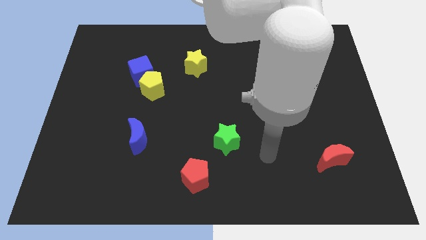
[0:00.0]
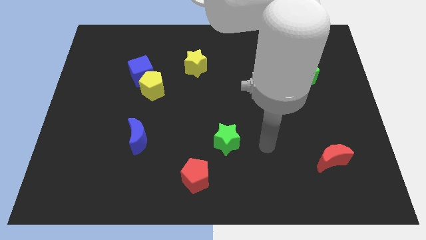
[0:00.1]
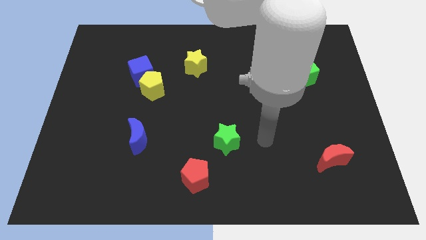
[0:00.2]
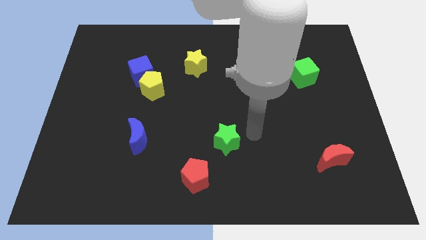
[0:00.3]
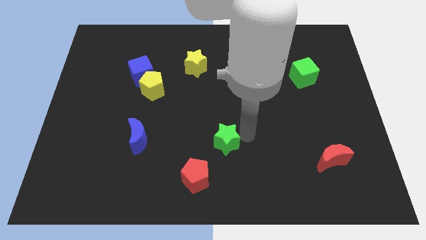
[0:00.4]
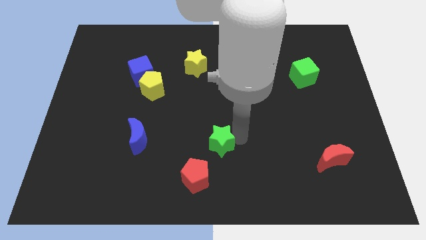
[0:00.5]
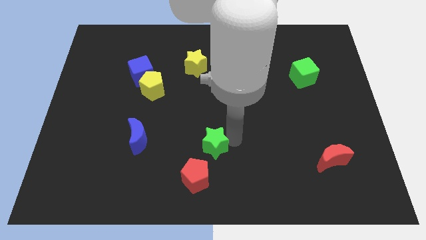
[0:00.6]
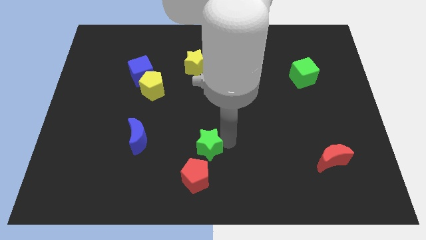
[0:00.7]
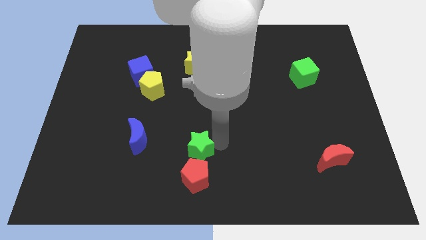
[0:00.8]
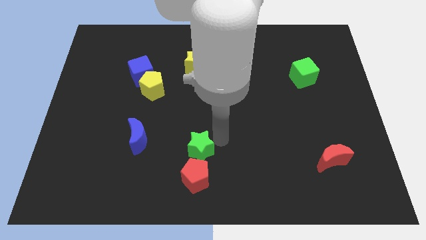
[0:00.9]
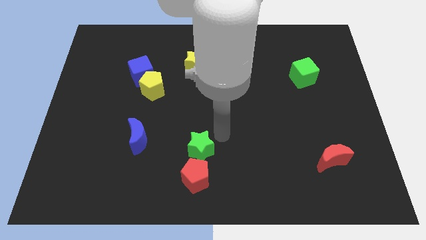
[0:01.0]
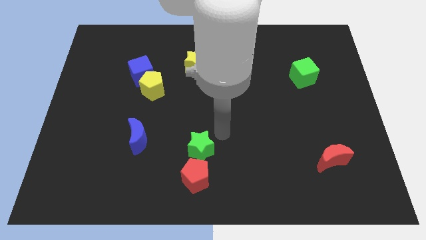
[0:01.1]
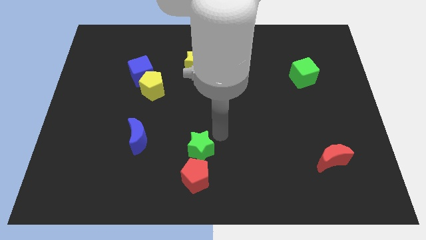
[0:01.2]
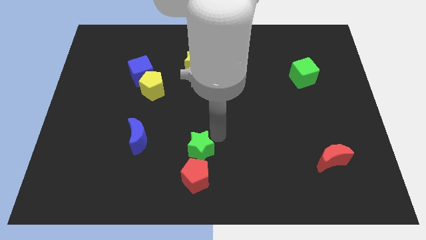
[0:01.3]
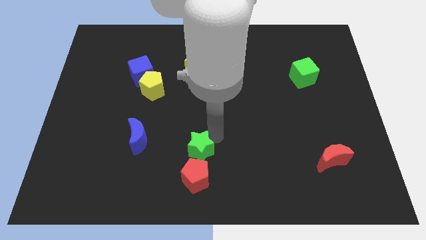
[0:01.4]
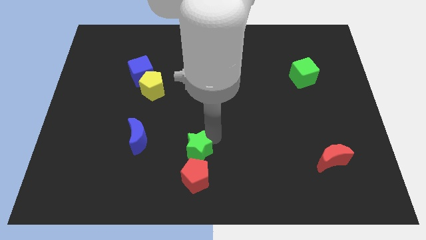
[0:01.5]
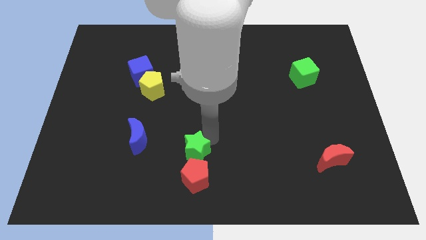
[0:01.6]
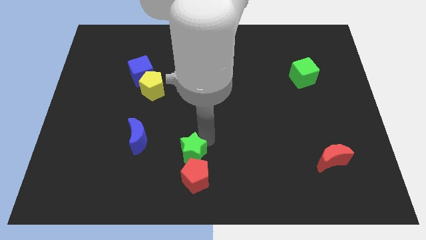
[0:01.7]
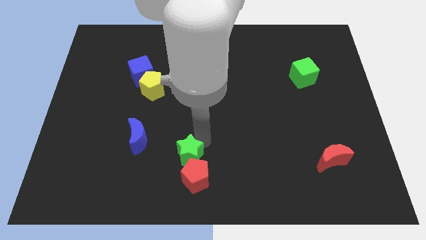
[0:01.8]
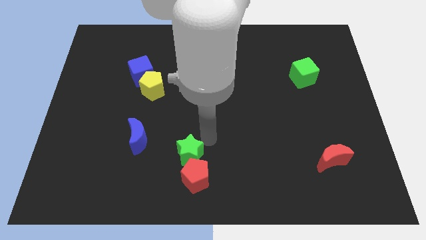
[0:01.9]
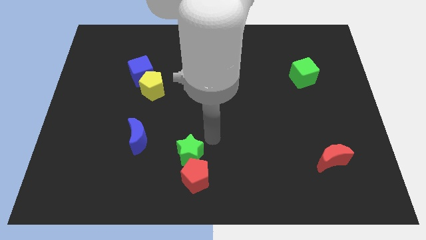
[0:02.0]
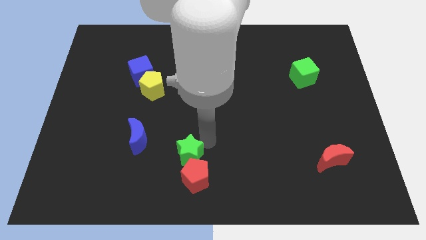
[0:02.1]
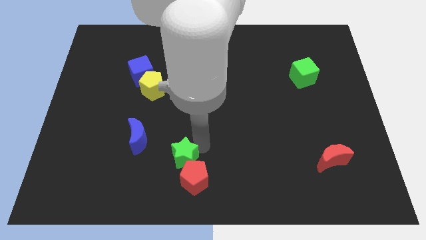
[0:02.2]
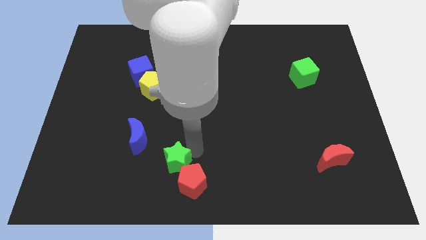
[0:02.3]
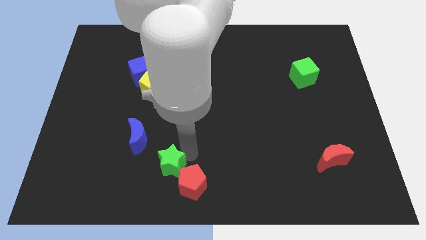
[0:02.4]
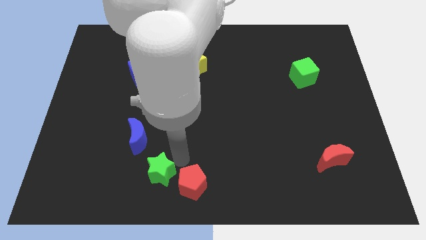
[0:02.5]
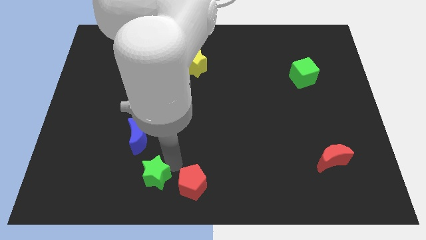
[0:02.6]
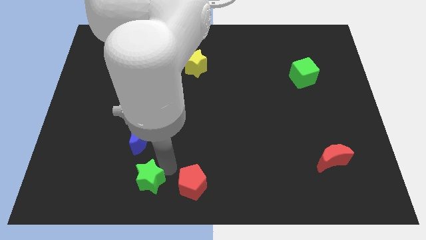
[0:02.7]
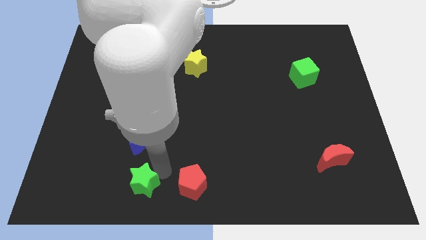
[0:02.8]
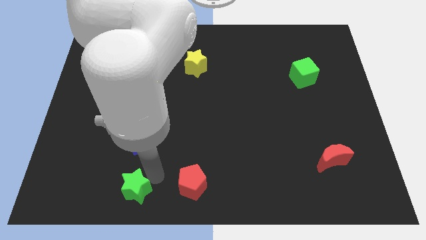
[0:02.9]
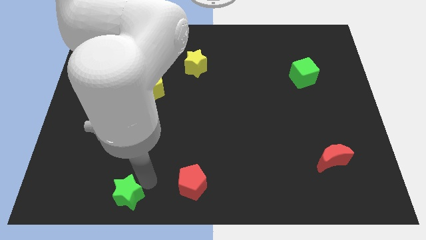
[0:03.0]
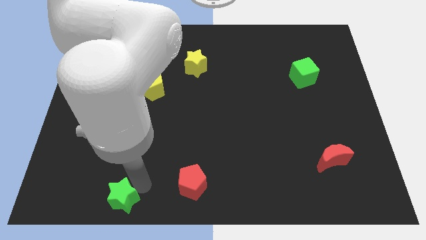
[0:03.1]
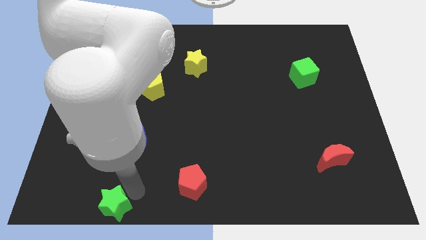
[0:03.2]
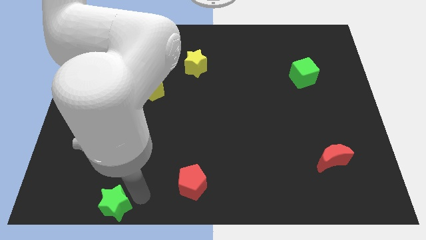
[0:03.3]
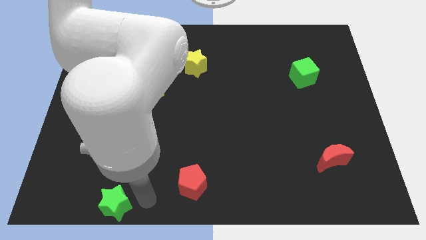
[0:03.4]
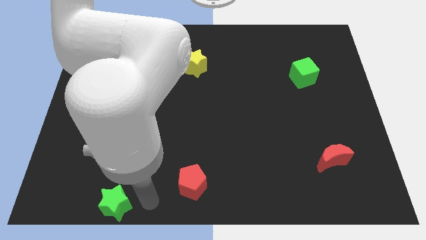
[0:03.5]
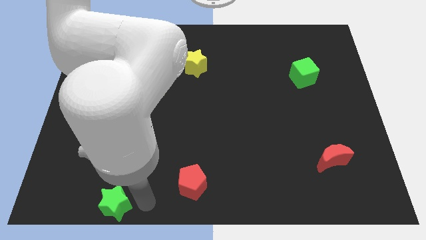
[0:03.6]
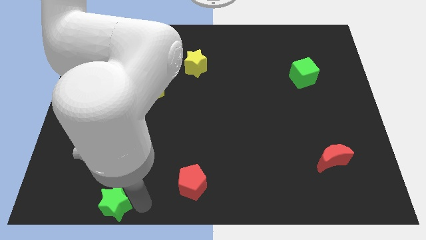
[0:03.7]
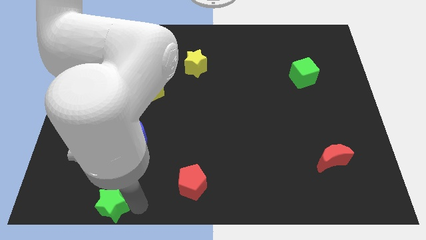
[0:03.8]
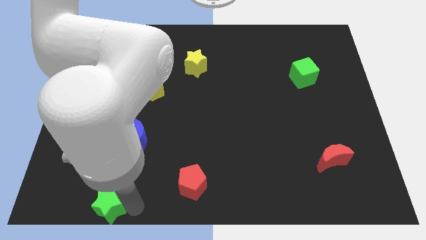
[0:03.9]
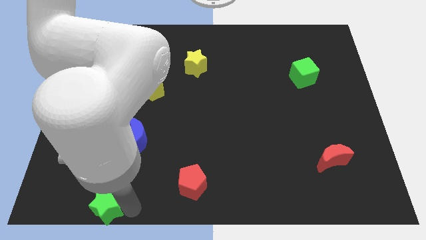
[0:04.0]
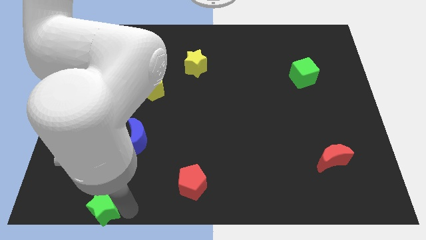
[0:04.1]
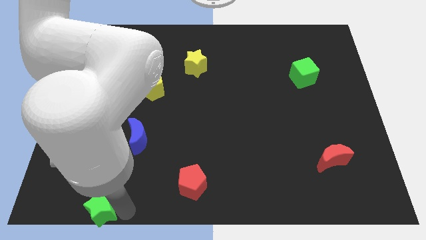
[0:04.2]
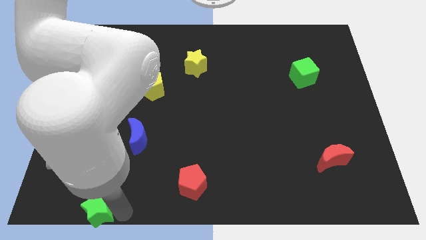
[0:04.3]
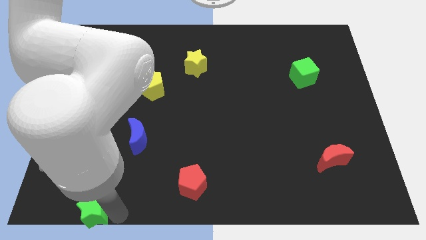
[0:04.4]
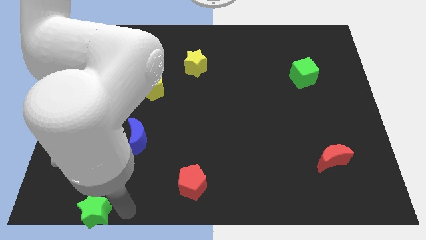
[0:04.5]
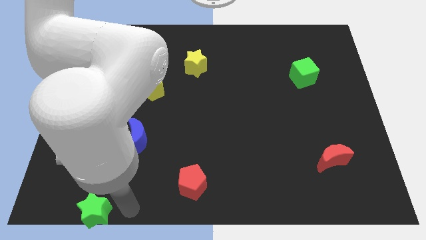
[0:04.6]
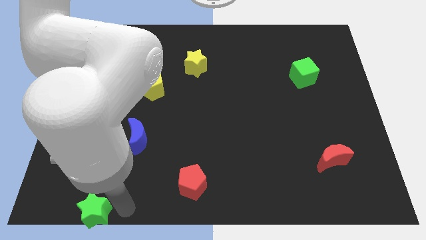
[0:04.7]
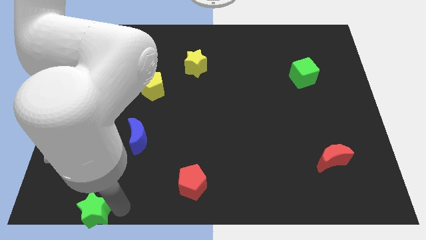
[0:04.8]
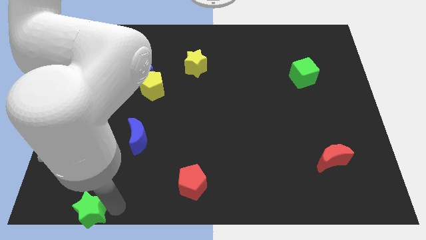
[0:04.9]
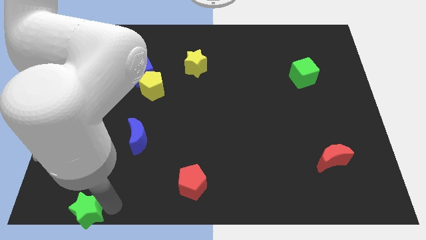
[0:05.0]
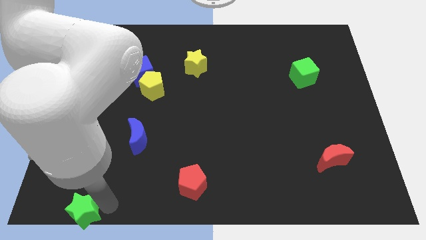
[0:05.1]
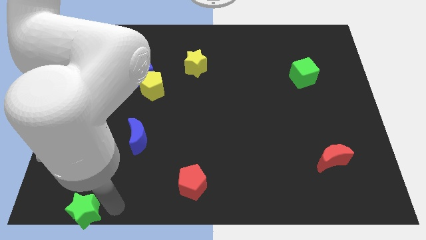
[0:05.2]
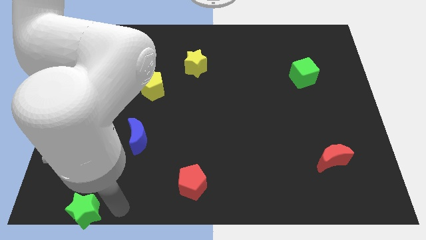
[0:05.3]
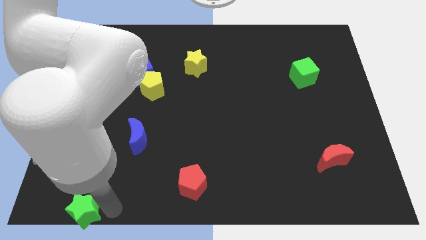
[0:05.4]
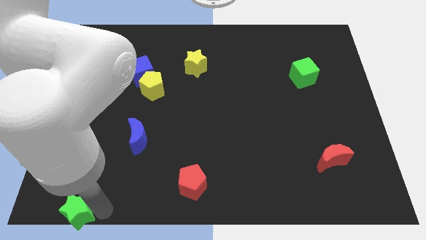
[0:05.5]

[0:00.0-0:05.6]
push the green star to the bottom left corner

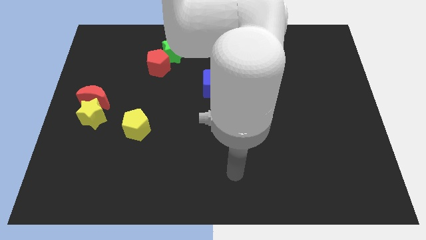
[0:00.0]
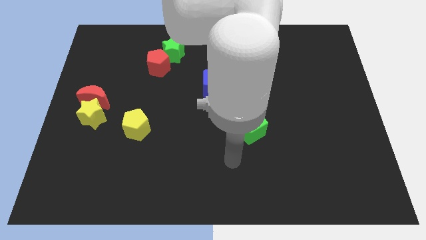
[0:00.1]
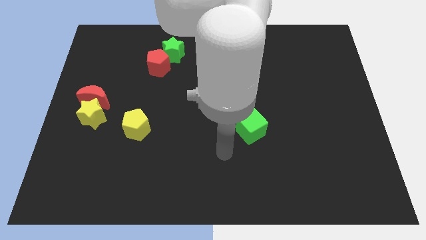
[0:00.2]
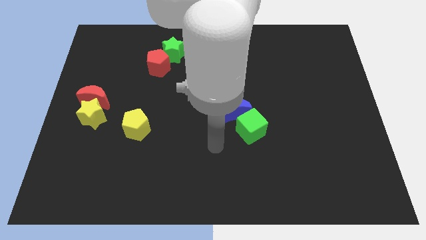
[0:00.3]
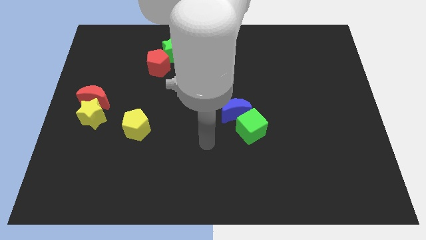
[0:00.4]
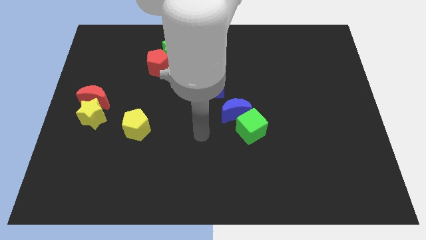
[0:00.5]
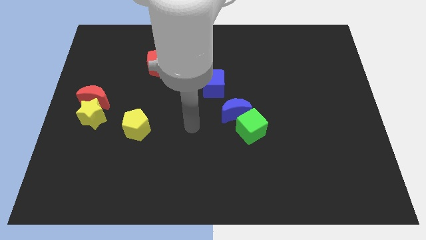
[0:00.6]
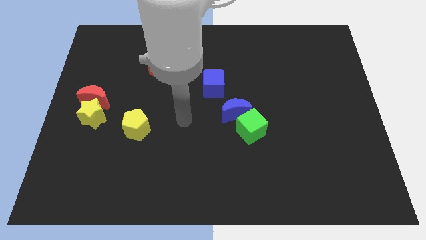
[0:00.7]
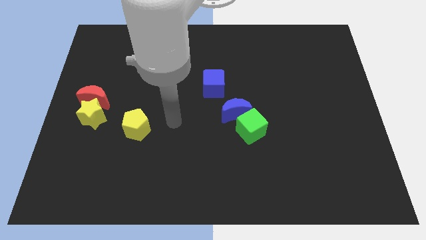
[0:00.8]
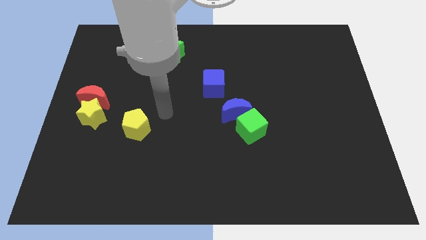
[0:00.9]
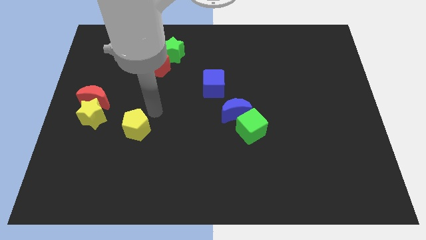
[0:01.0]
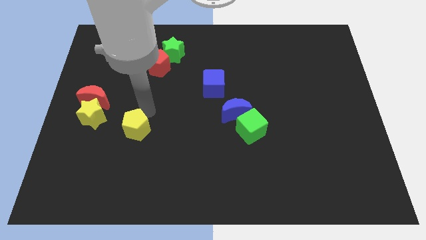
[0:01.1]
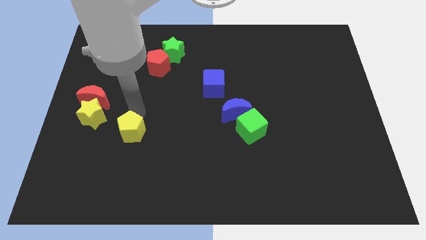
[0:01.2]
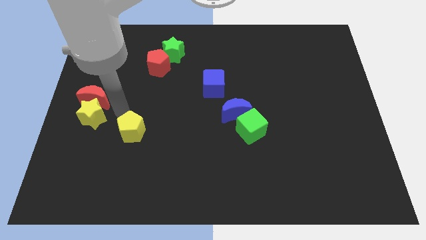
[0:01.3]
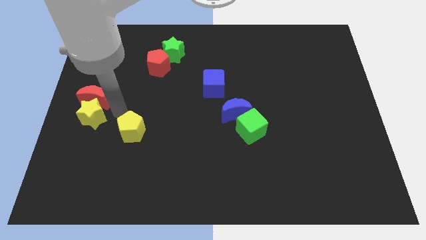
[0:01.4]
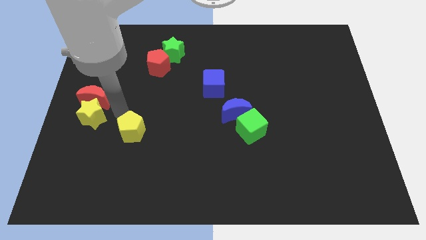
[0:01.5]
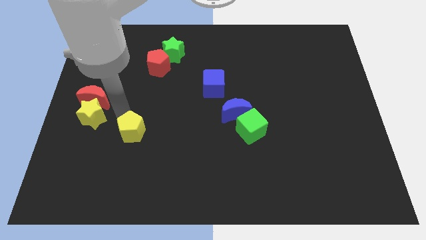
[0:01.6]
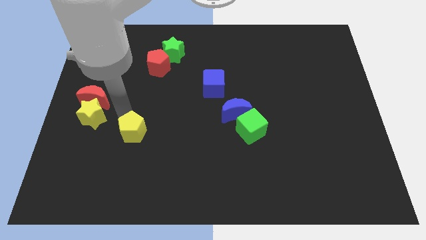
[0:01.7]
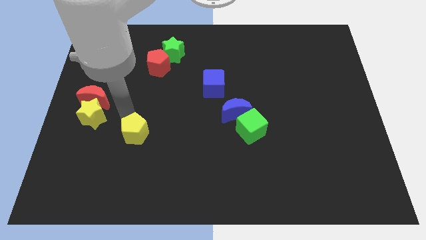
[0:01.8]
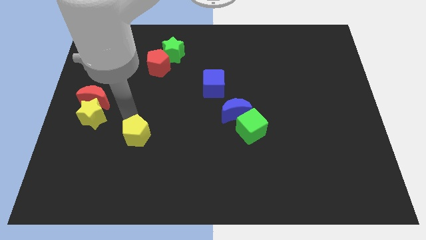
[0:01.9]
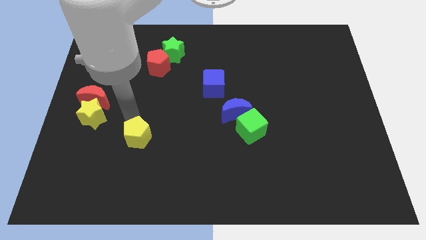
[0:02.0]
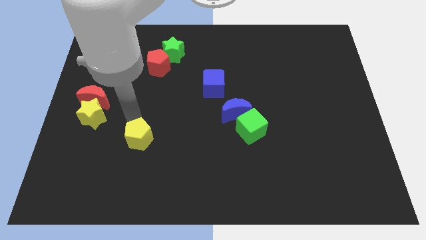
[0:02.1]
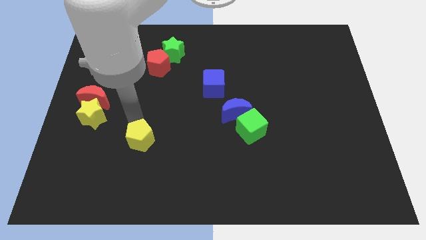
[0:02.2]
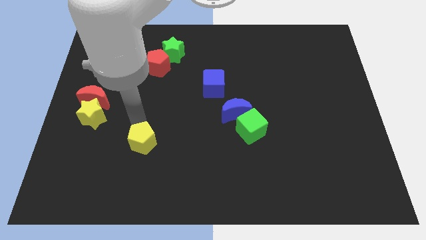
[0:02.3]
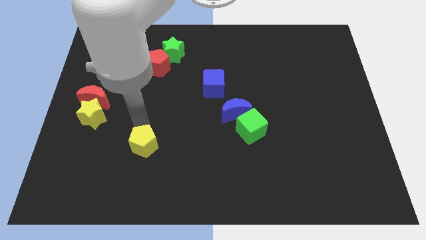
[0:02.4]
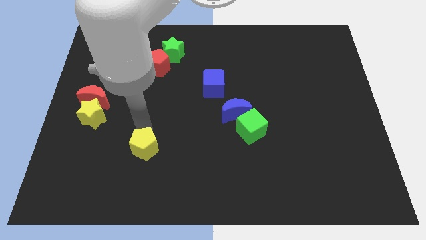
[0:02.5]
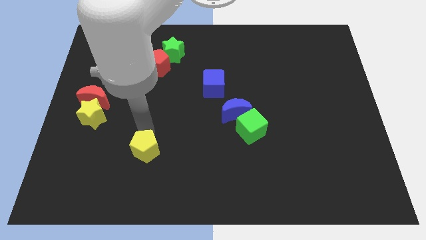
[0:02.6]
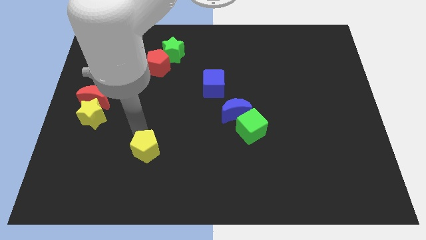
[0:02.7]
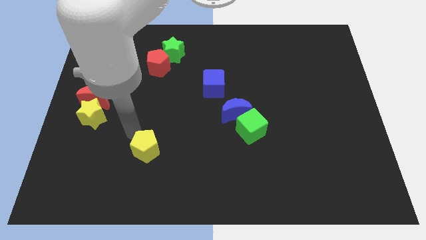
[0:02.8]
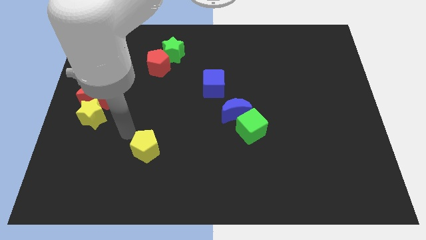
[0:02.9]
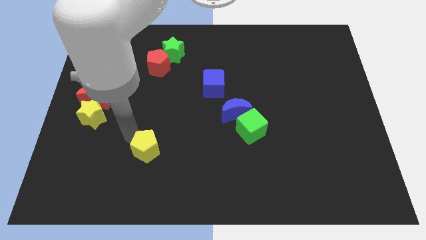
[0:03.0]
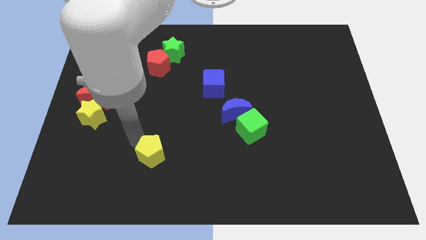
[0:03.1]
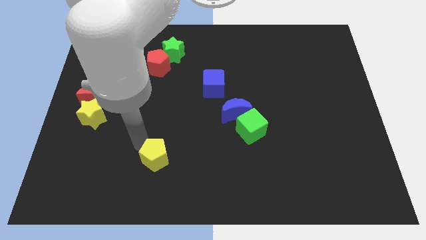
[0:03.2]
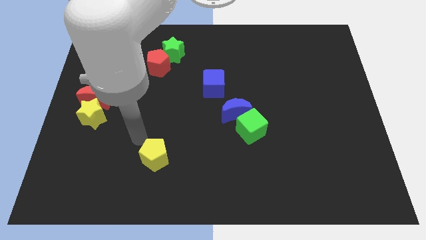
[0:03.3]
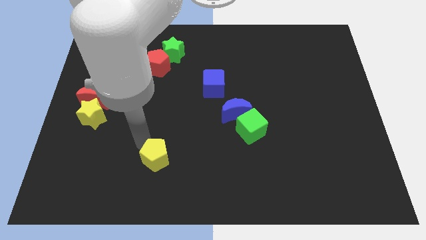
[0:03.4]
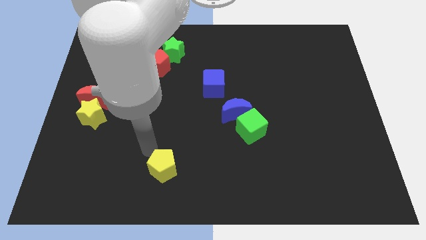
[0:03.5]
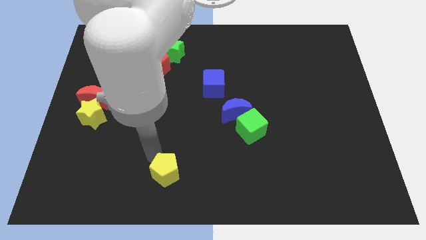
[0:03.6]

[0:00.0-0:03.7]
put the yellow pentagon to the bottom
